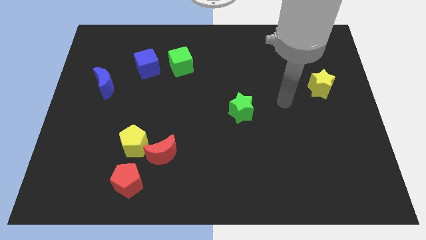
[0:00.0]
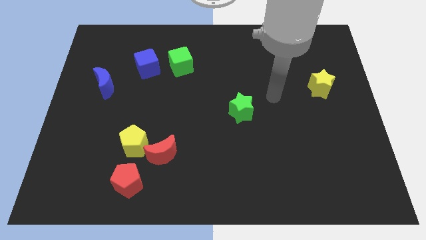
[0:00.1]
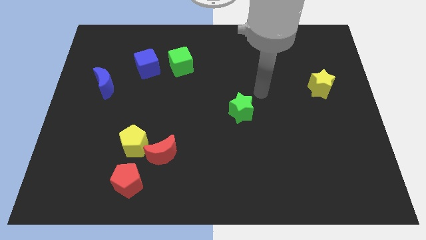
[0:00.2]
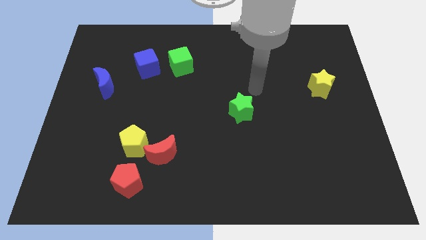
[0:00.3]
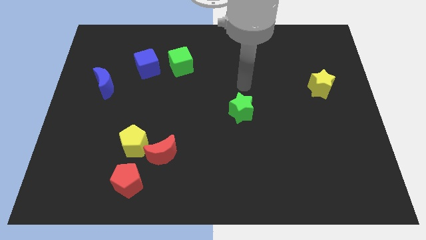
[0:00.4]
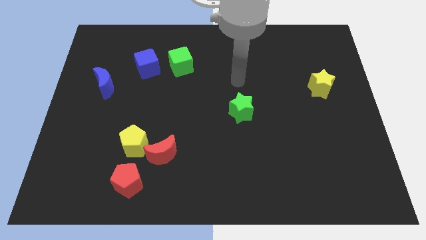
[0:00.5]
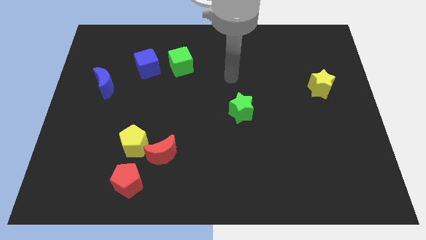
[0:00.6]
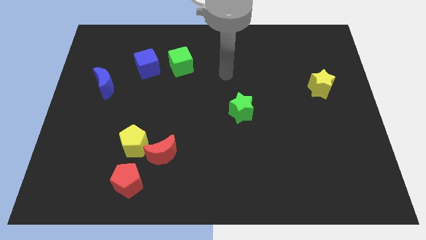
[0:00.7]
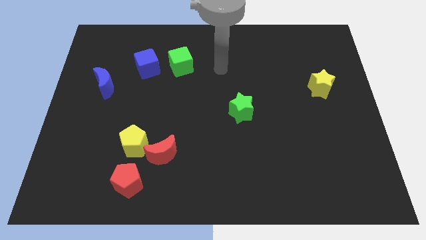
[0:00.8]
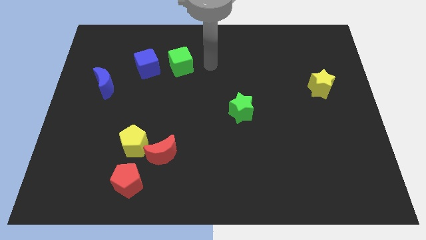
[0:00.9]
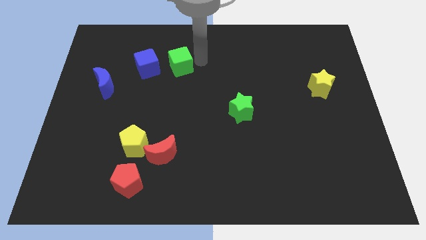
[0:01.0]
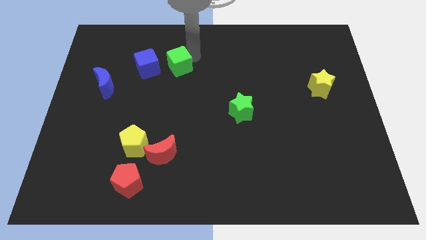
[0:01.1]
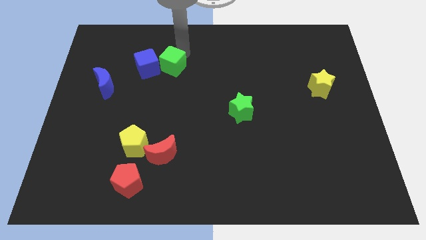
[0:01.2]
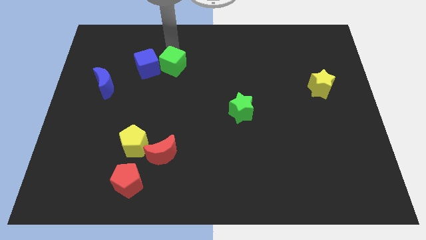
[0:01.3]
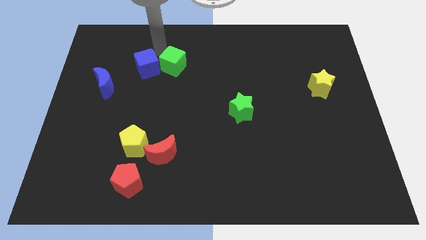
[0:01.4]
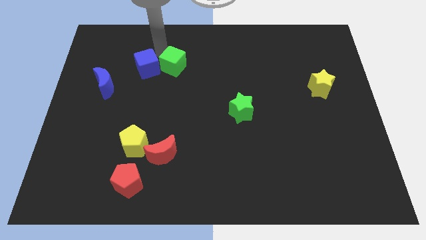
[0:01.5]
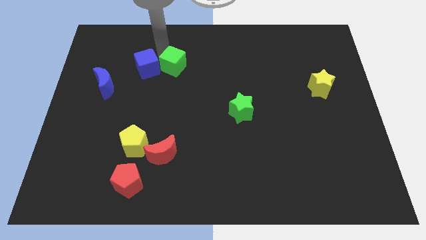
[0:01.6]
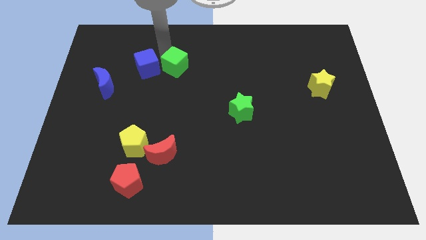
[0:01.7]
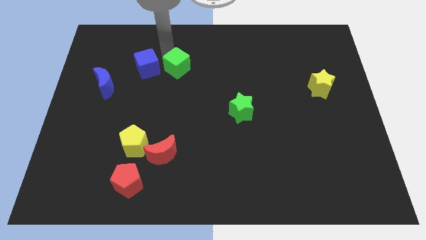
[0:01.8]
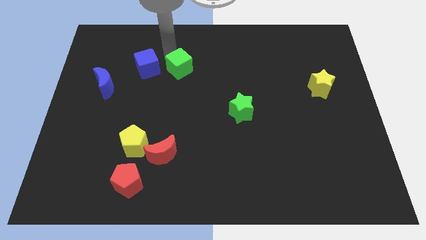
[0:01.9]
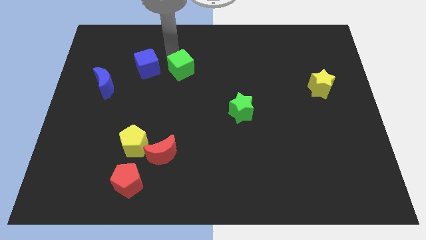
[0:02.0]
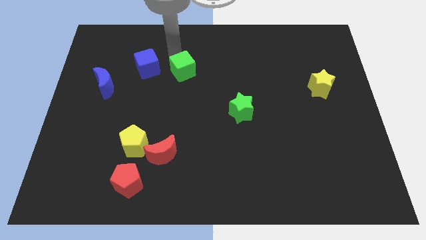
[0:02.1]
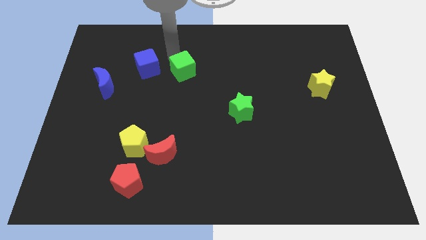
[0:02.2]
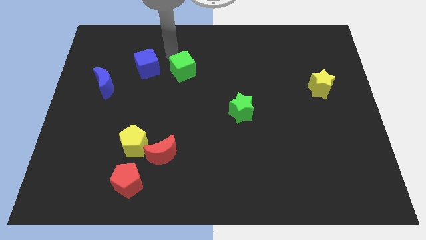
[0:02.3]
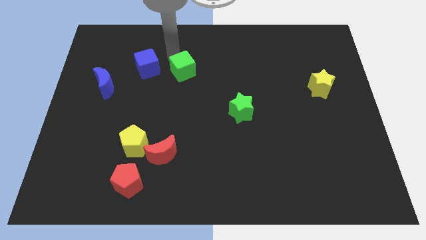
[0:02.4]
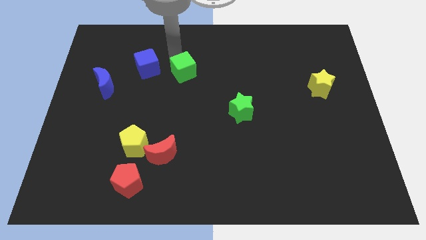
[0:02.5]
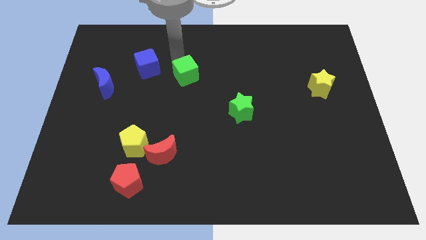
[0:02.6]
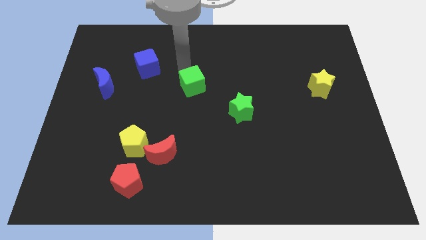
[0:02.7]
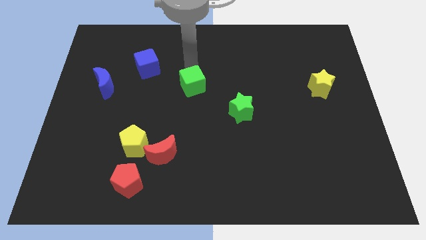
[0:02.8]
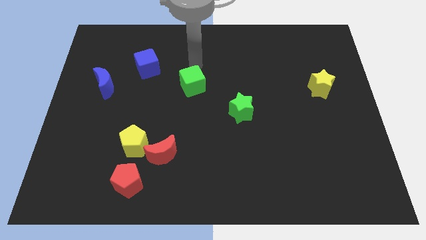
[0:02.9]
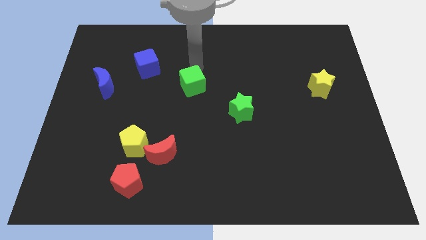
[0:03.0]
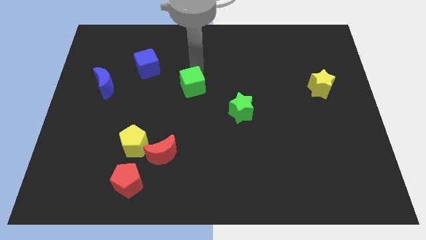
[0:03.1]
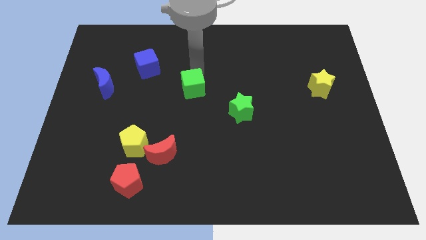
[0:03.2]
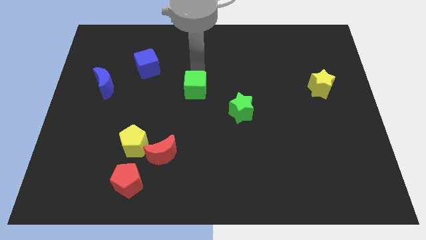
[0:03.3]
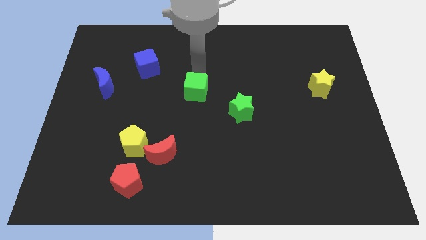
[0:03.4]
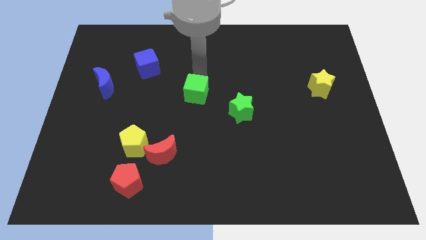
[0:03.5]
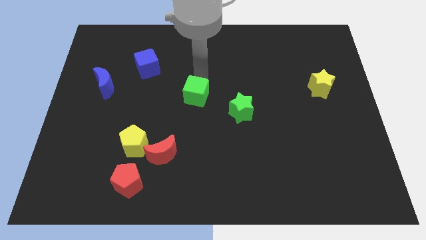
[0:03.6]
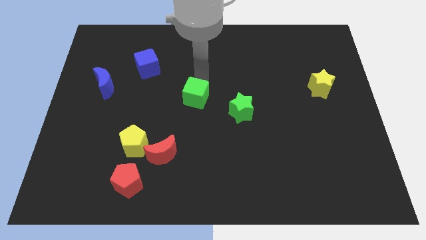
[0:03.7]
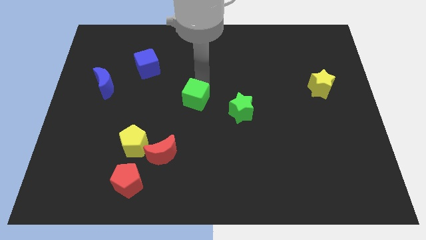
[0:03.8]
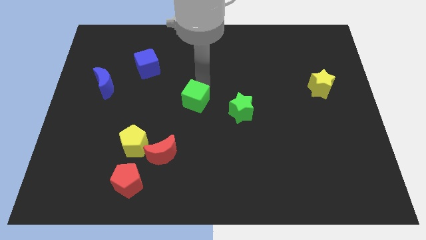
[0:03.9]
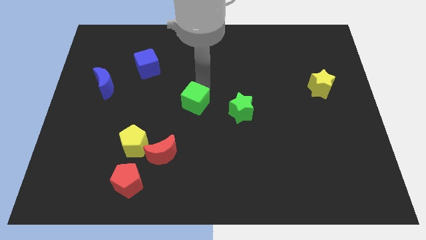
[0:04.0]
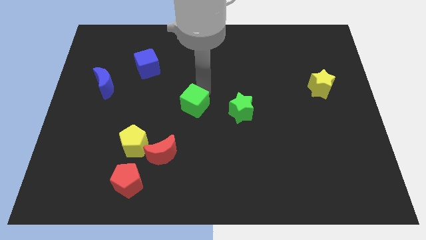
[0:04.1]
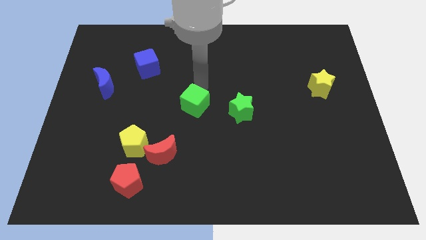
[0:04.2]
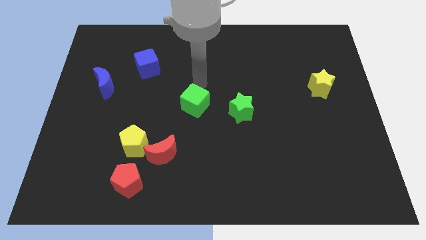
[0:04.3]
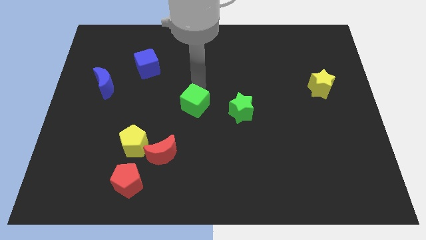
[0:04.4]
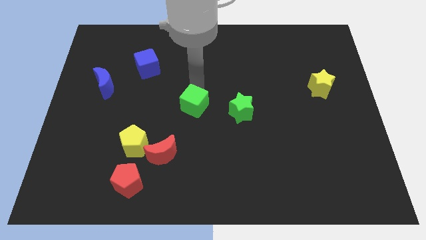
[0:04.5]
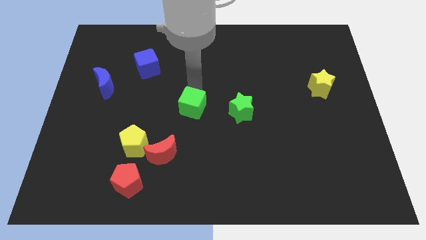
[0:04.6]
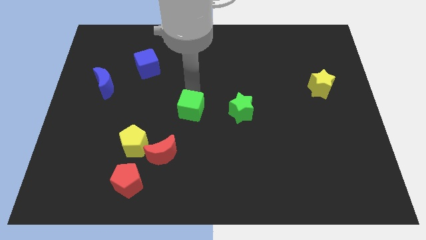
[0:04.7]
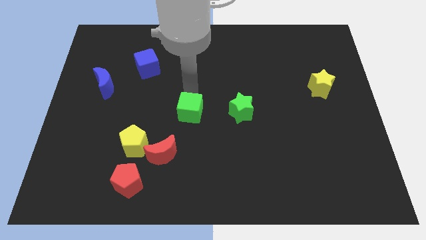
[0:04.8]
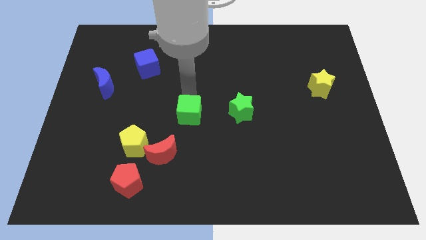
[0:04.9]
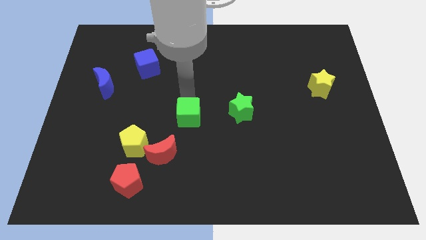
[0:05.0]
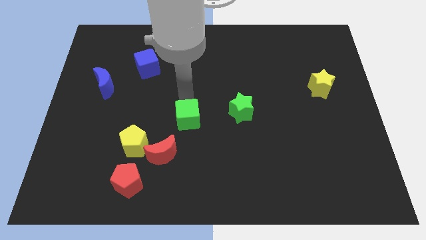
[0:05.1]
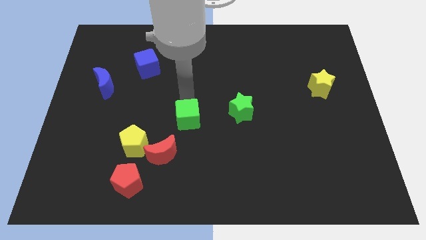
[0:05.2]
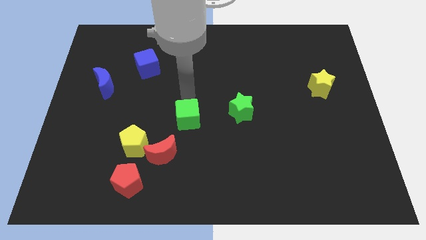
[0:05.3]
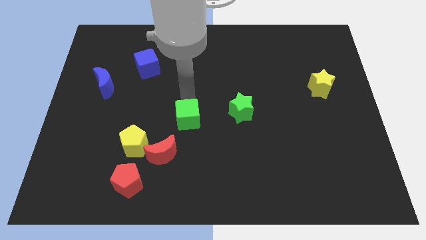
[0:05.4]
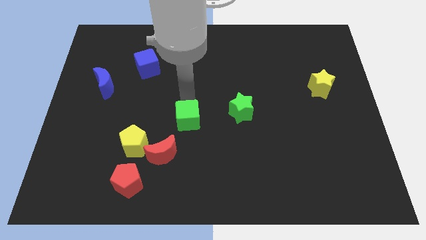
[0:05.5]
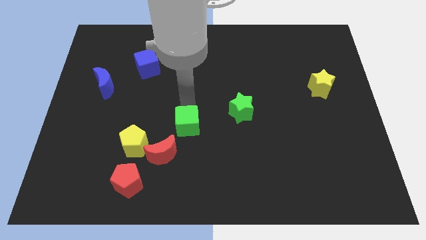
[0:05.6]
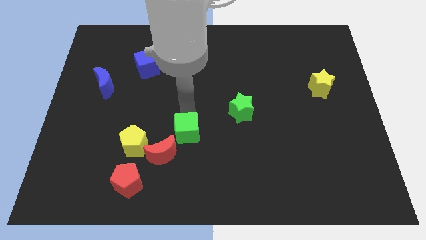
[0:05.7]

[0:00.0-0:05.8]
slide the green cube downwards

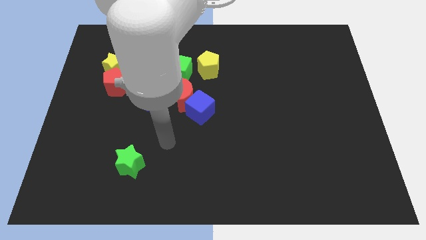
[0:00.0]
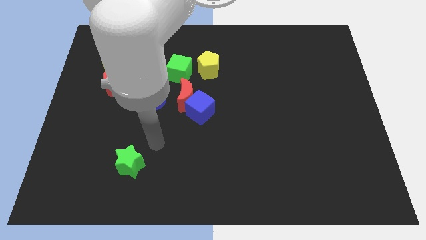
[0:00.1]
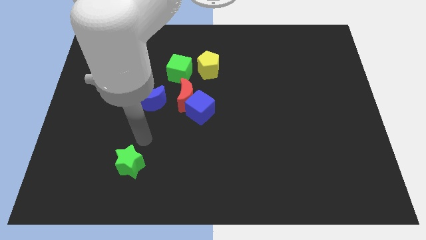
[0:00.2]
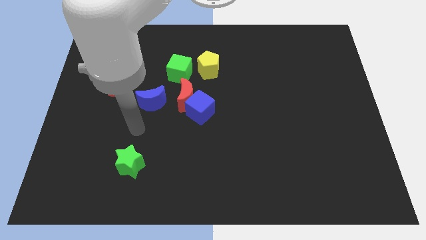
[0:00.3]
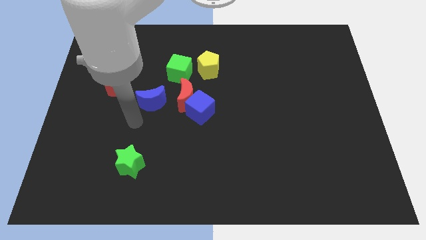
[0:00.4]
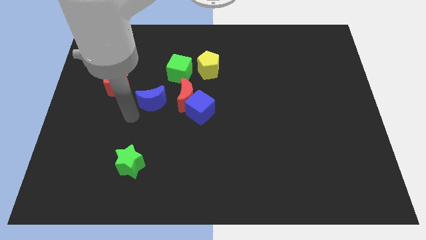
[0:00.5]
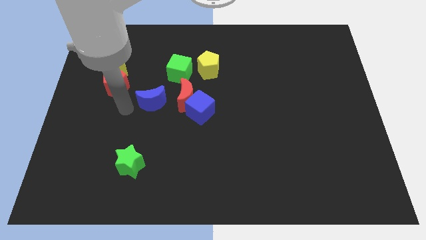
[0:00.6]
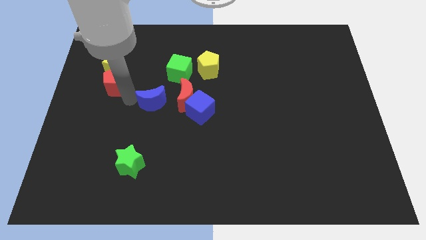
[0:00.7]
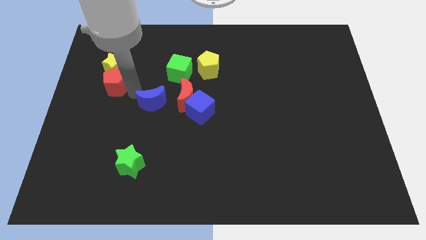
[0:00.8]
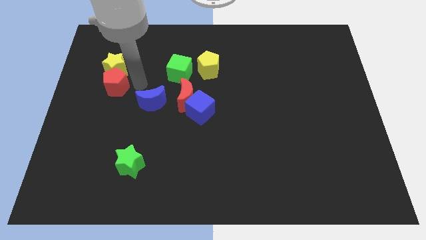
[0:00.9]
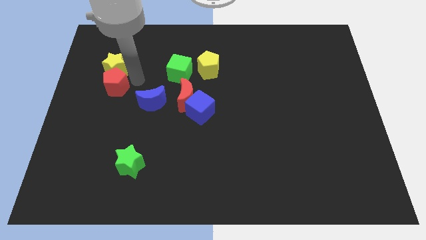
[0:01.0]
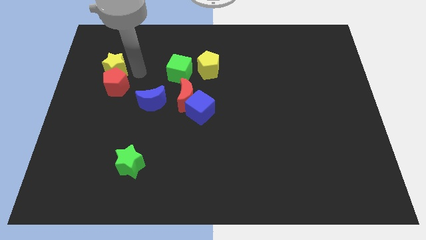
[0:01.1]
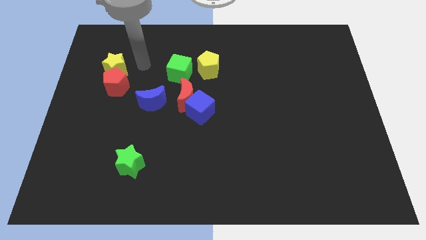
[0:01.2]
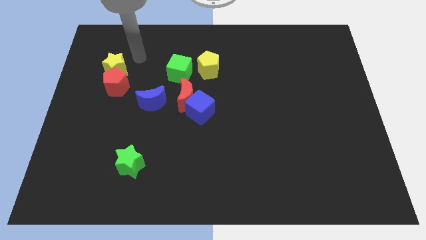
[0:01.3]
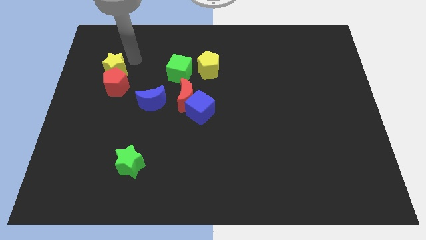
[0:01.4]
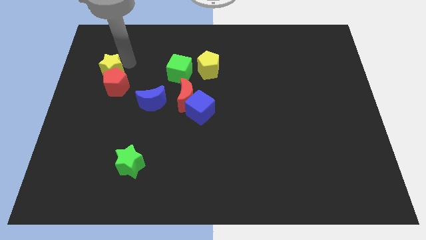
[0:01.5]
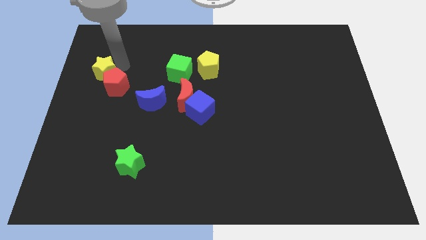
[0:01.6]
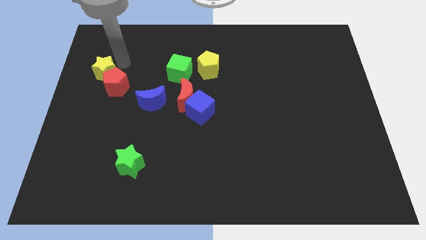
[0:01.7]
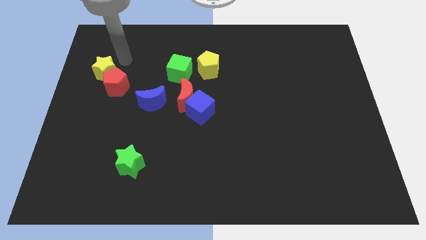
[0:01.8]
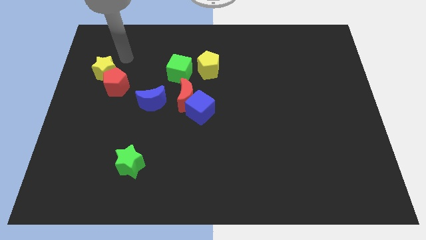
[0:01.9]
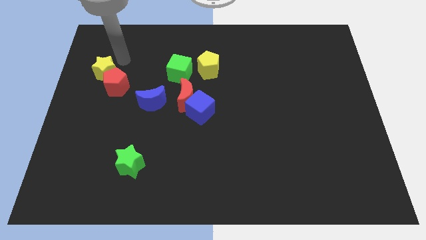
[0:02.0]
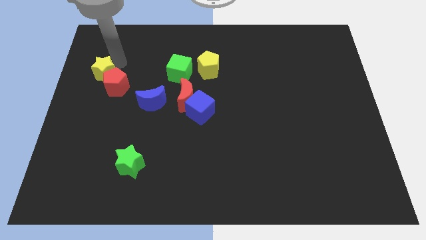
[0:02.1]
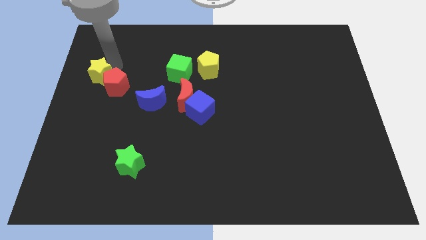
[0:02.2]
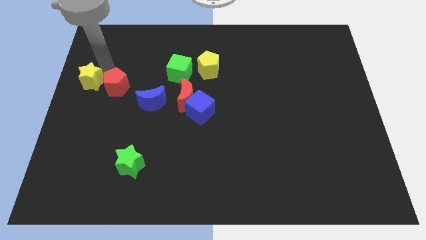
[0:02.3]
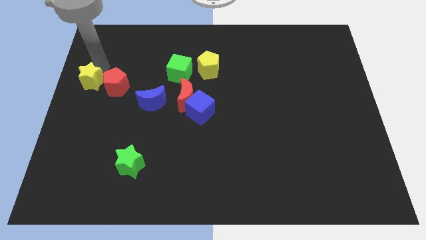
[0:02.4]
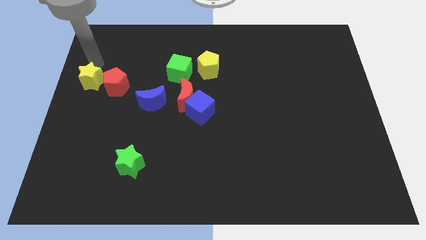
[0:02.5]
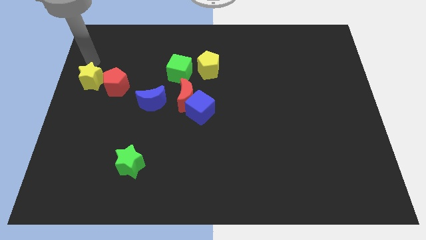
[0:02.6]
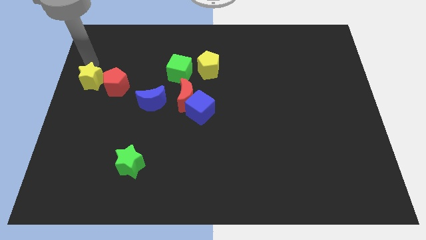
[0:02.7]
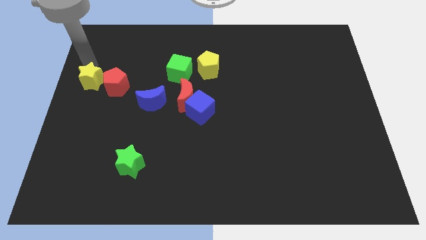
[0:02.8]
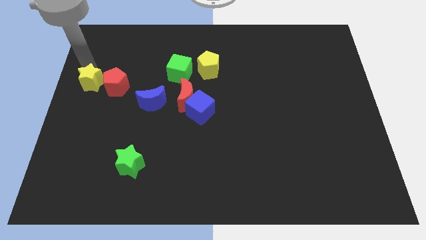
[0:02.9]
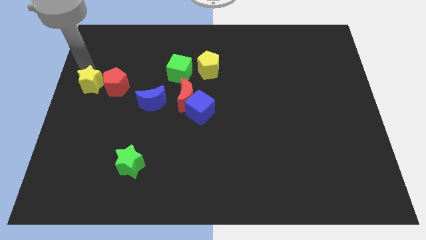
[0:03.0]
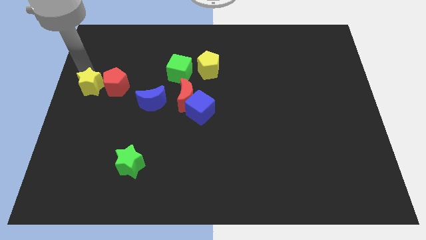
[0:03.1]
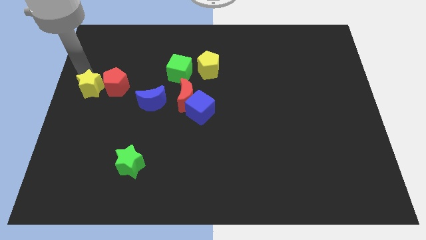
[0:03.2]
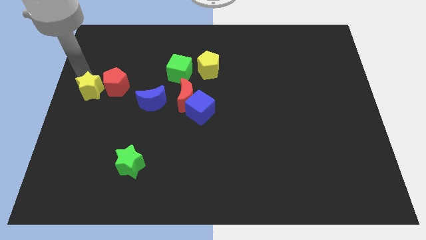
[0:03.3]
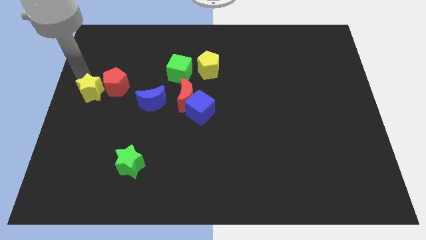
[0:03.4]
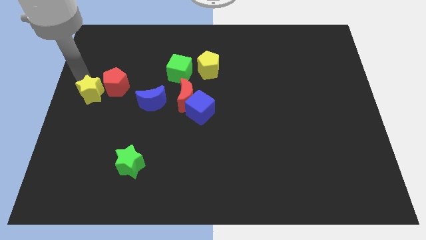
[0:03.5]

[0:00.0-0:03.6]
slightly move the yellow star downwards
